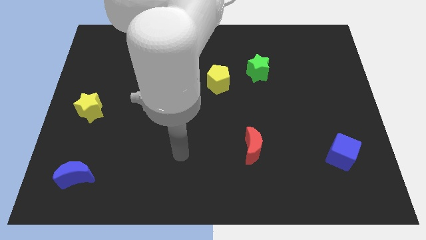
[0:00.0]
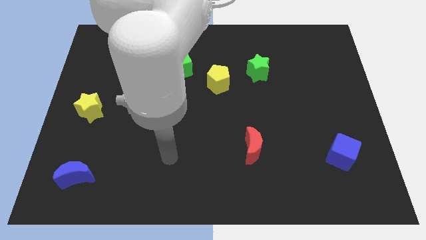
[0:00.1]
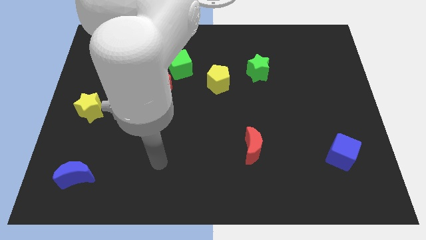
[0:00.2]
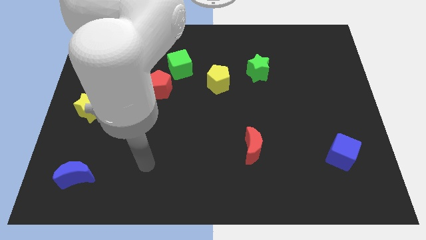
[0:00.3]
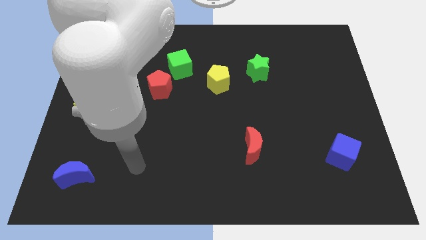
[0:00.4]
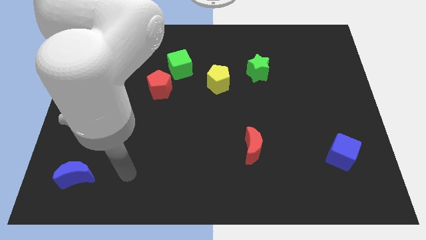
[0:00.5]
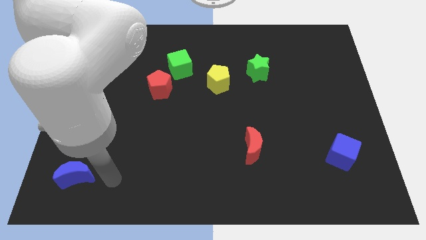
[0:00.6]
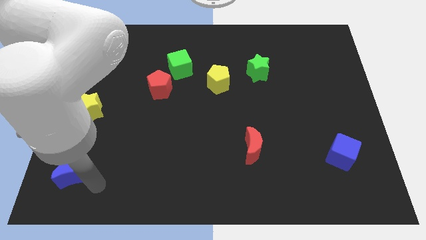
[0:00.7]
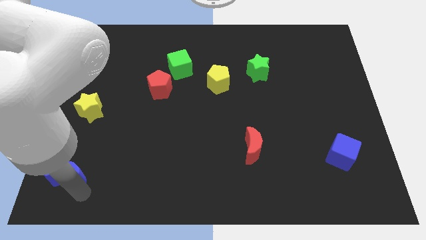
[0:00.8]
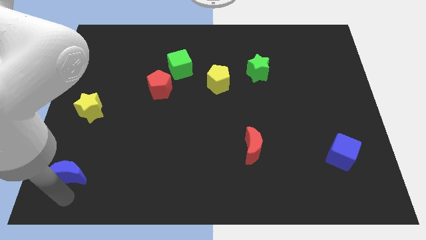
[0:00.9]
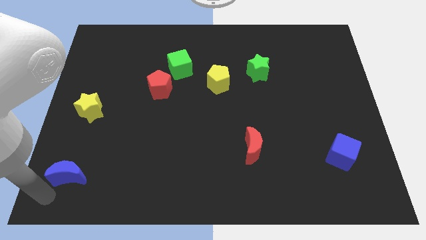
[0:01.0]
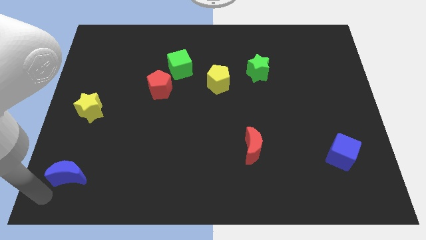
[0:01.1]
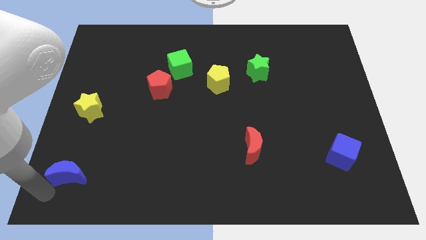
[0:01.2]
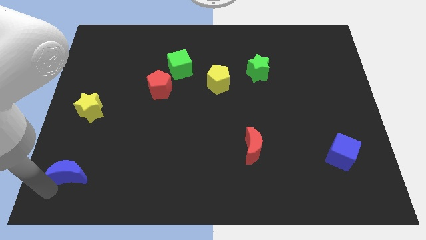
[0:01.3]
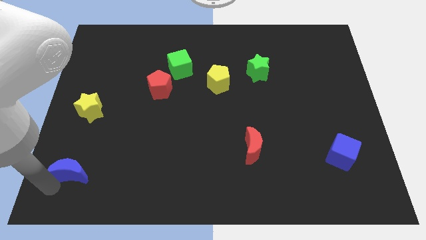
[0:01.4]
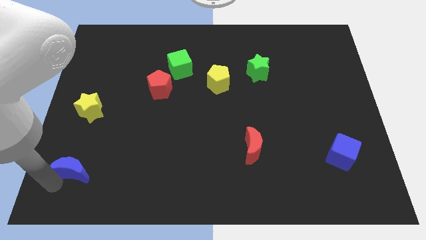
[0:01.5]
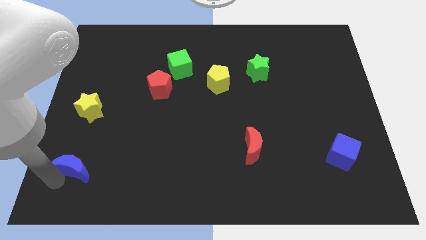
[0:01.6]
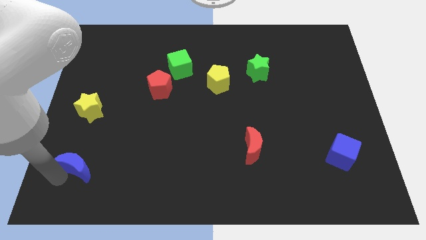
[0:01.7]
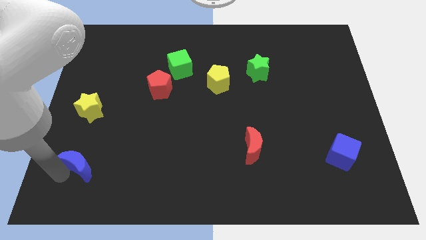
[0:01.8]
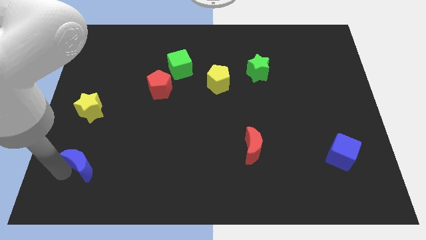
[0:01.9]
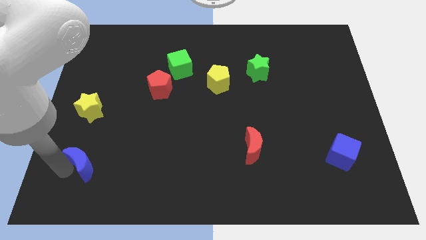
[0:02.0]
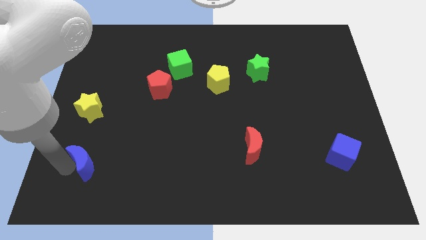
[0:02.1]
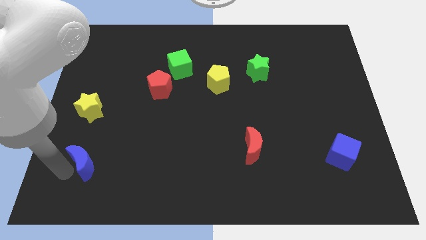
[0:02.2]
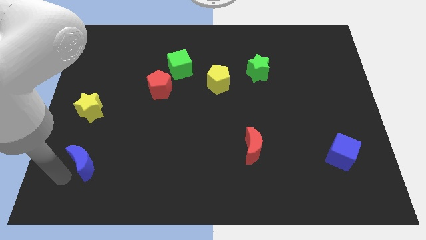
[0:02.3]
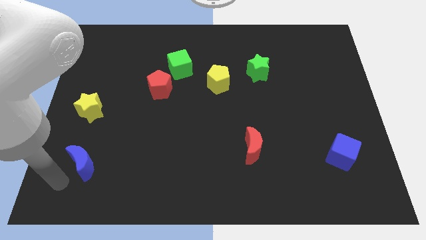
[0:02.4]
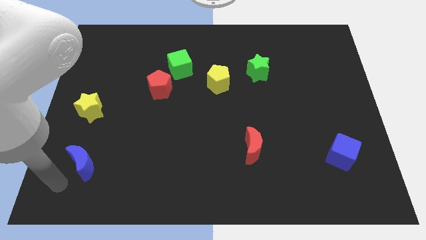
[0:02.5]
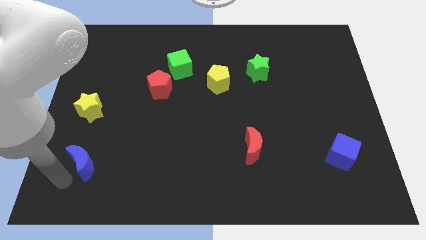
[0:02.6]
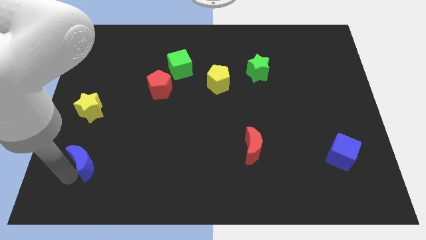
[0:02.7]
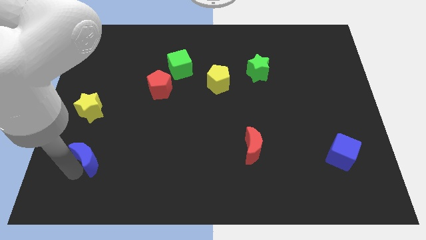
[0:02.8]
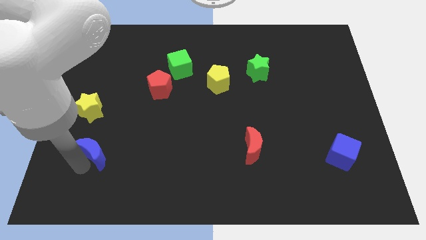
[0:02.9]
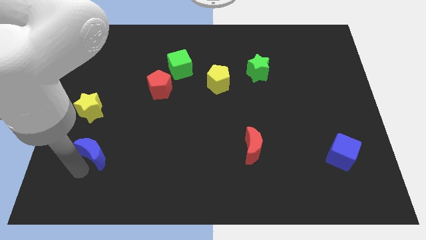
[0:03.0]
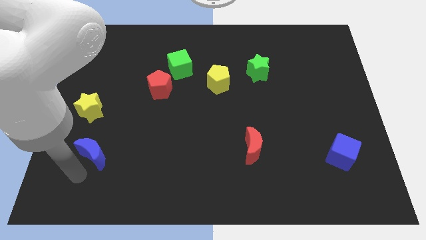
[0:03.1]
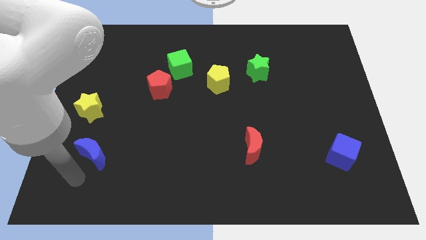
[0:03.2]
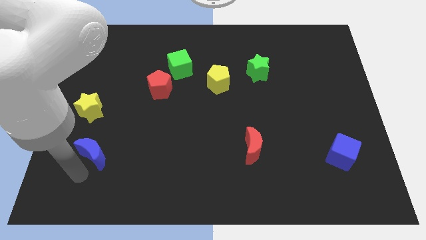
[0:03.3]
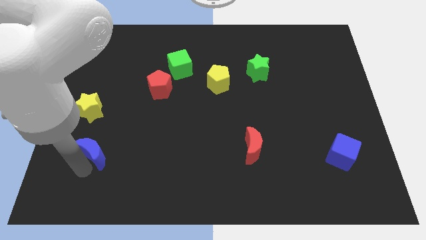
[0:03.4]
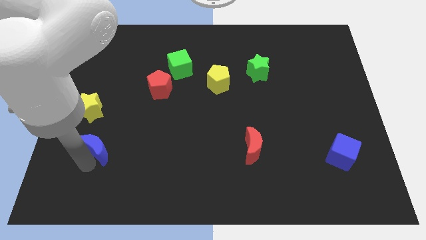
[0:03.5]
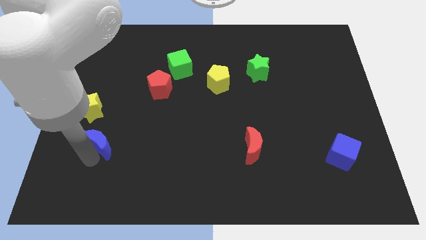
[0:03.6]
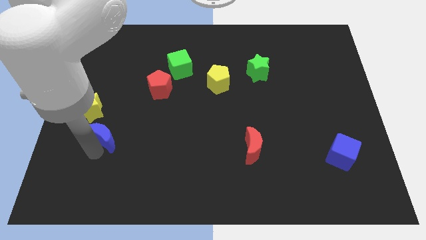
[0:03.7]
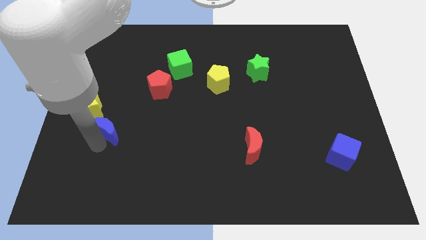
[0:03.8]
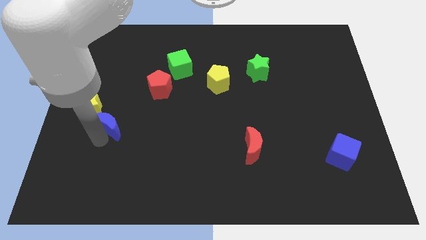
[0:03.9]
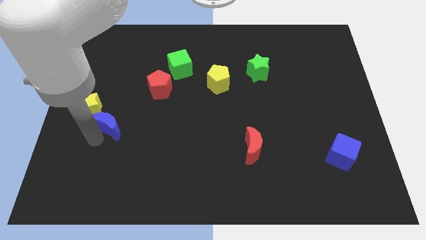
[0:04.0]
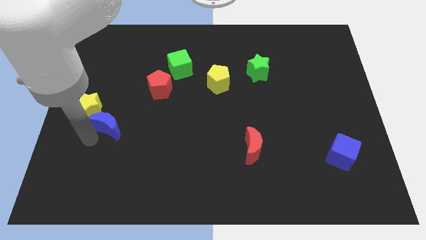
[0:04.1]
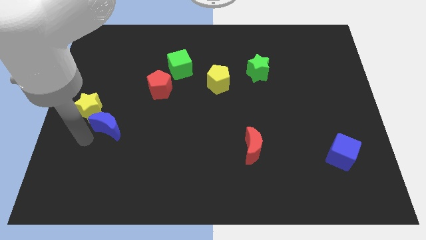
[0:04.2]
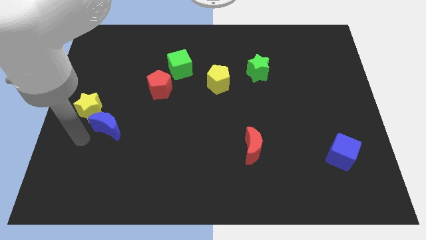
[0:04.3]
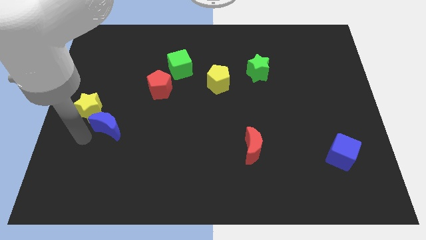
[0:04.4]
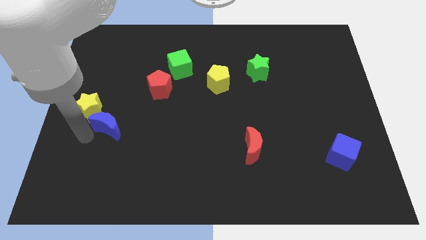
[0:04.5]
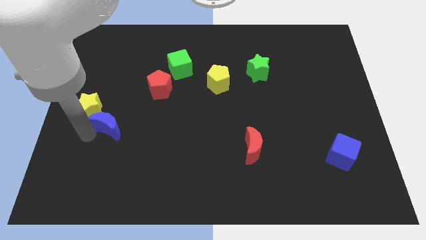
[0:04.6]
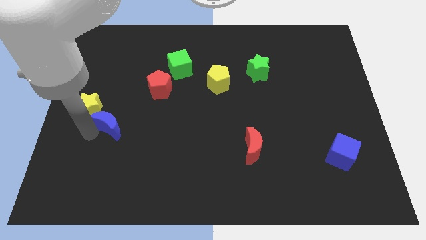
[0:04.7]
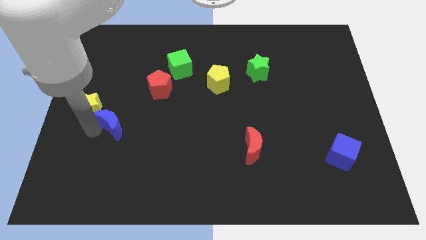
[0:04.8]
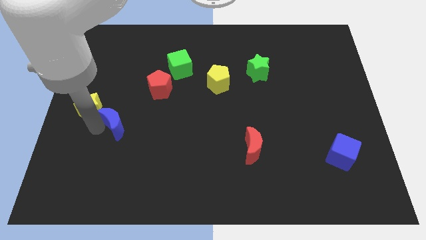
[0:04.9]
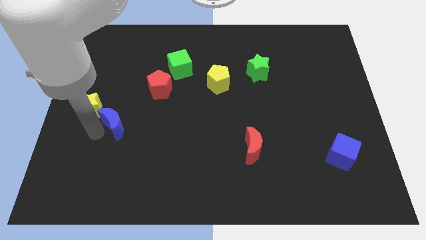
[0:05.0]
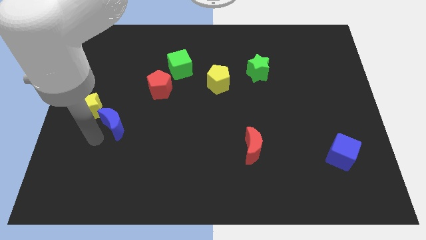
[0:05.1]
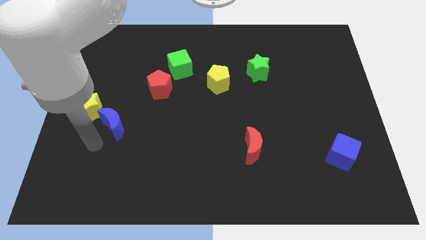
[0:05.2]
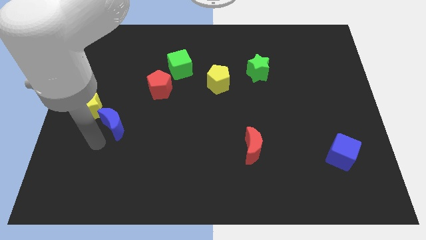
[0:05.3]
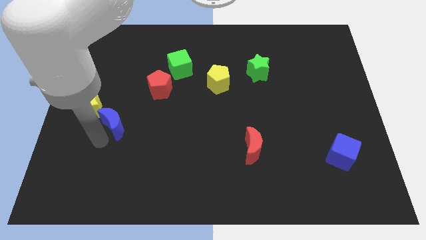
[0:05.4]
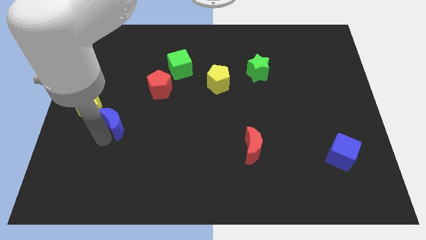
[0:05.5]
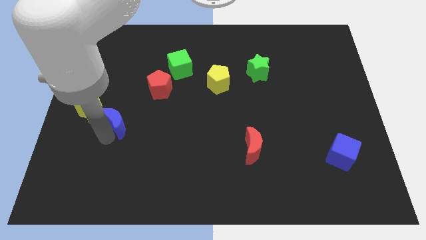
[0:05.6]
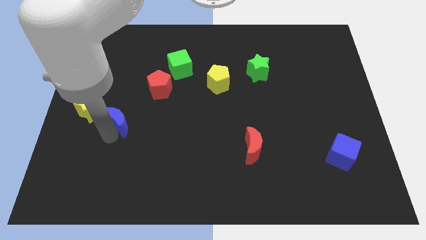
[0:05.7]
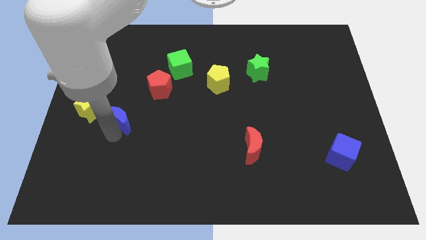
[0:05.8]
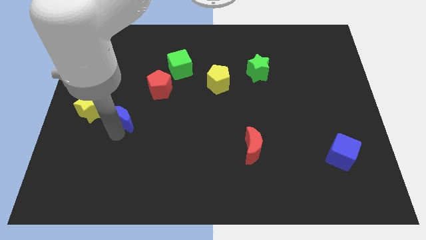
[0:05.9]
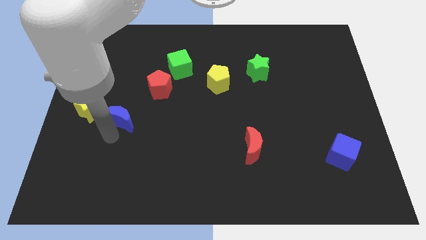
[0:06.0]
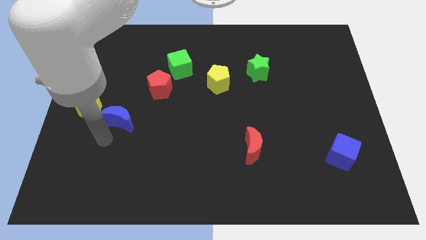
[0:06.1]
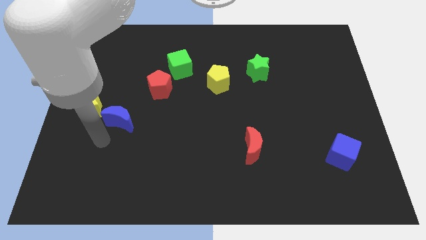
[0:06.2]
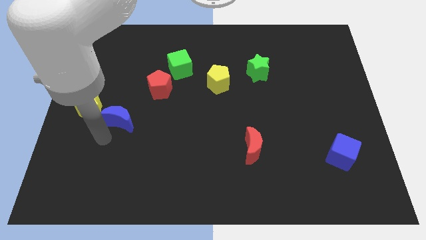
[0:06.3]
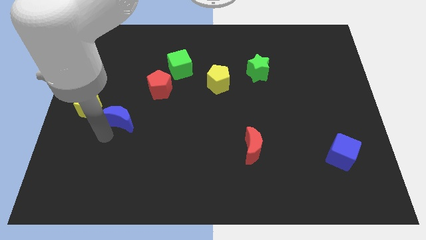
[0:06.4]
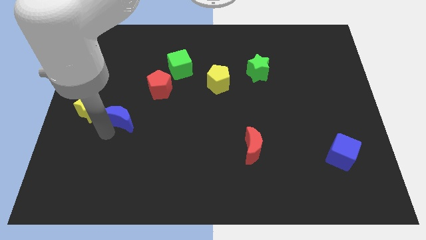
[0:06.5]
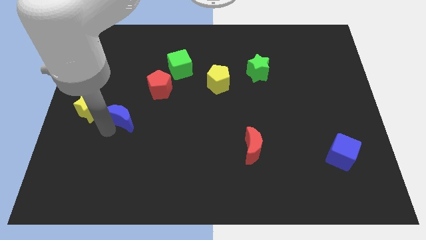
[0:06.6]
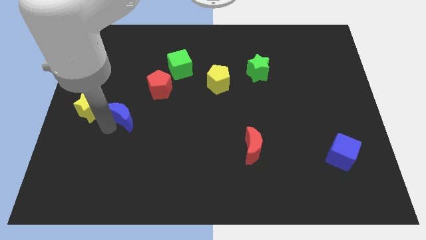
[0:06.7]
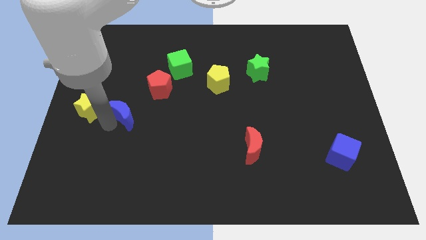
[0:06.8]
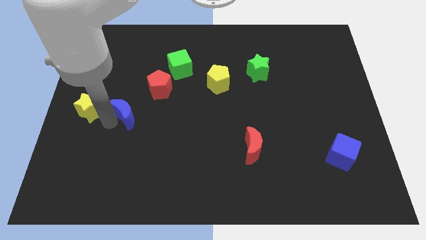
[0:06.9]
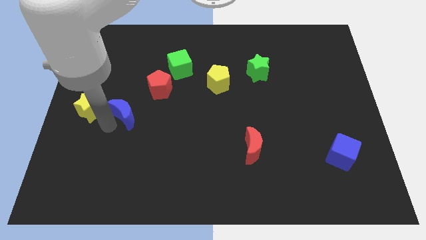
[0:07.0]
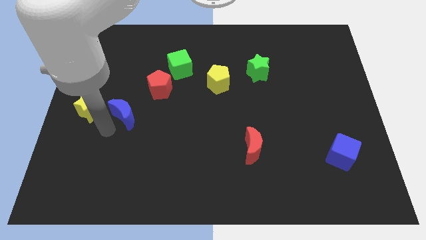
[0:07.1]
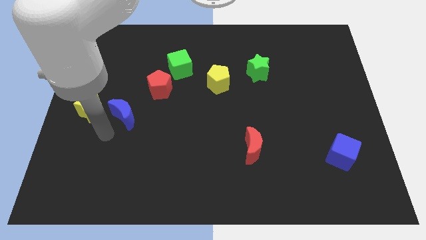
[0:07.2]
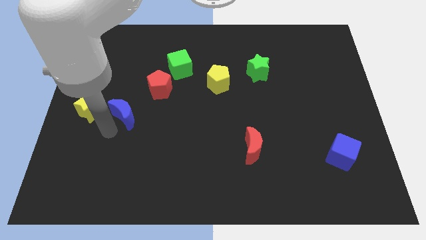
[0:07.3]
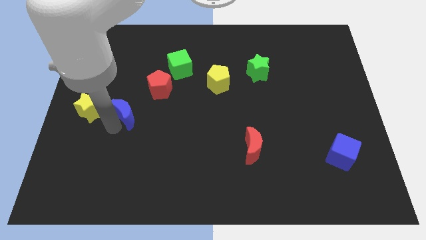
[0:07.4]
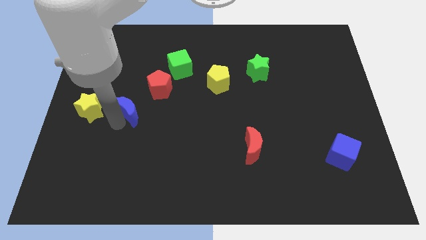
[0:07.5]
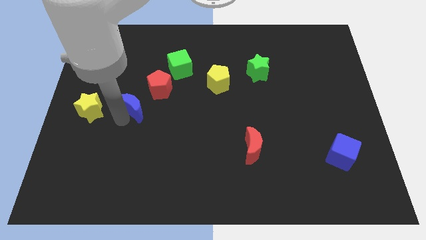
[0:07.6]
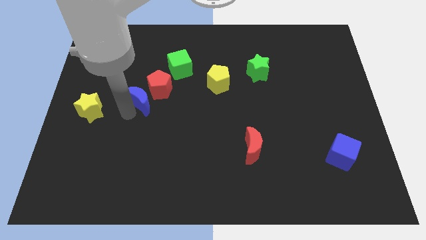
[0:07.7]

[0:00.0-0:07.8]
slide the blue moon next to the red pentagon

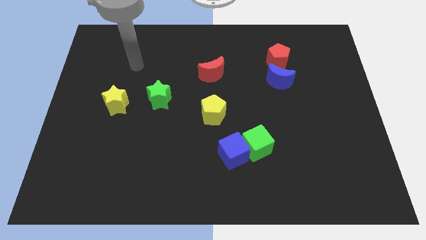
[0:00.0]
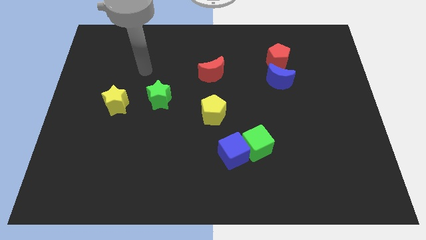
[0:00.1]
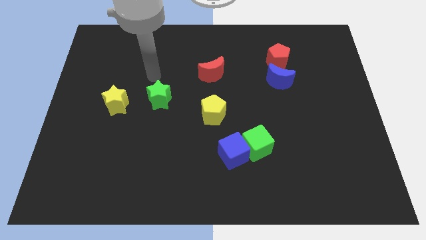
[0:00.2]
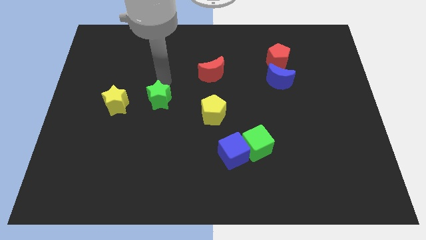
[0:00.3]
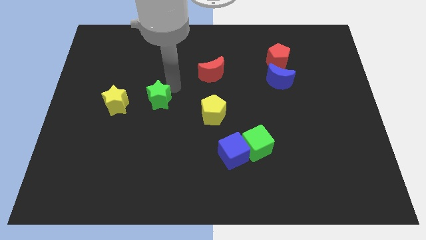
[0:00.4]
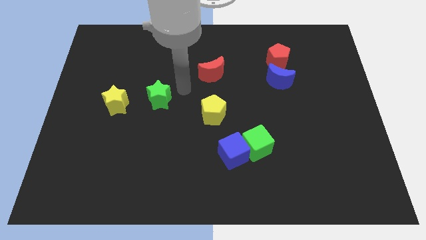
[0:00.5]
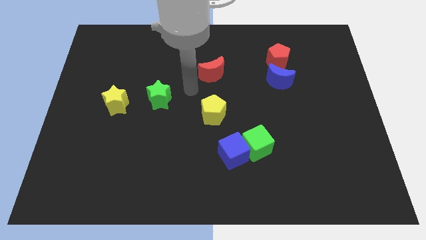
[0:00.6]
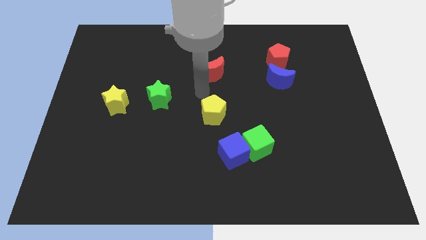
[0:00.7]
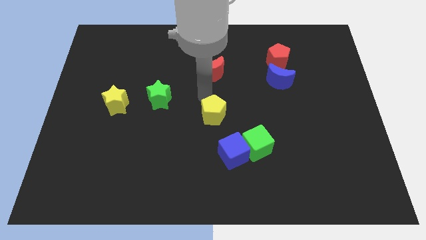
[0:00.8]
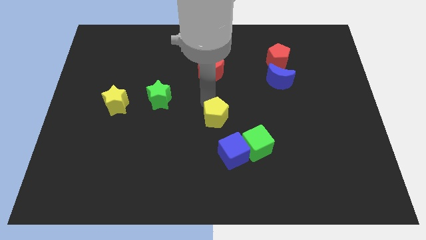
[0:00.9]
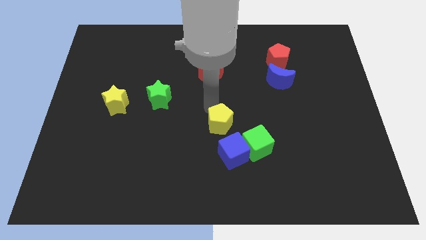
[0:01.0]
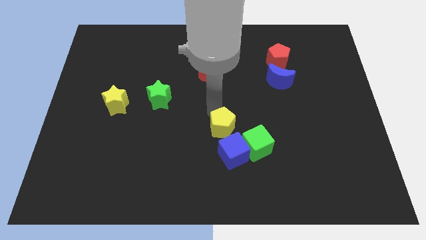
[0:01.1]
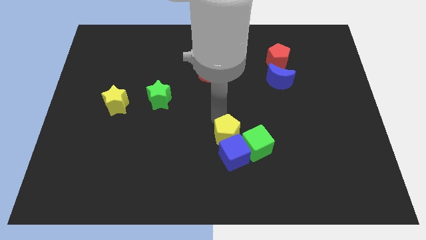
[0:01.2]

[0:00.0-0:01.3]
put the yellow pentagon next to the blue cube
